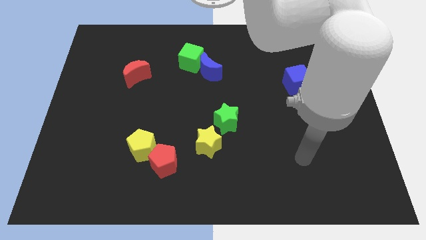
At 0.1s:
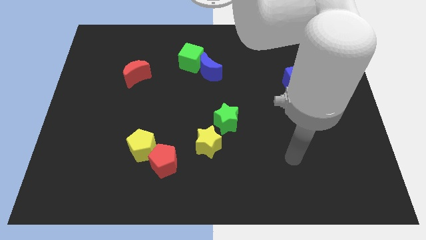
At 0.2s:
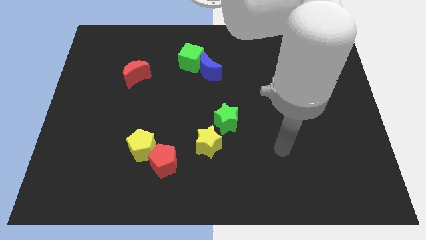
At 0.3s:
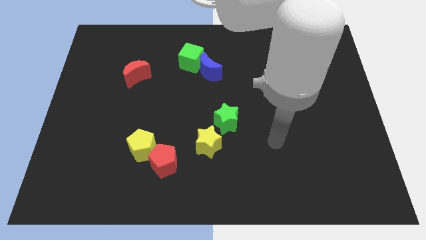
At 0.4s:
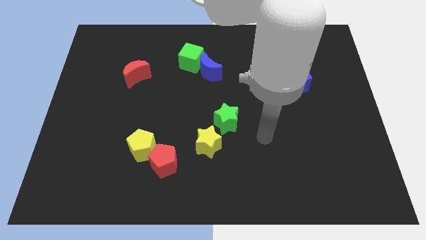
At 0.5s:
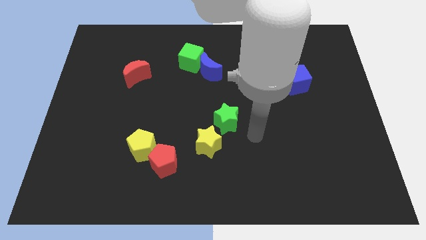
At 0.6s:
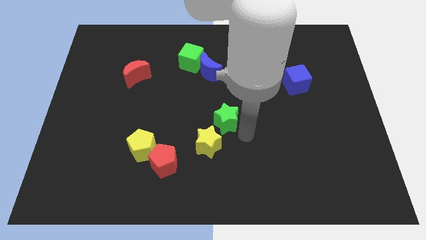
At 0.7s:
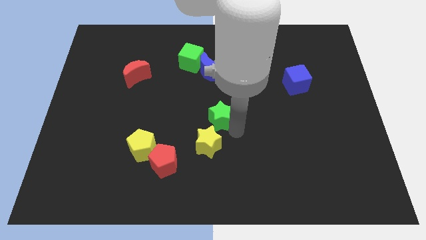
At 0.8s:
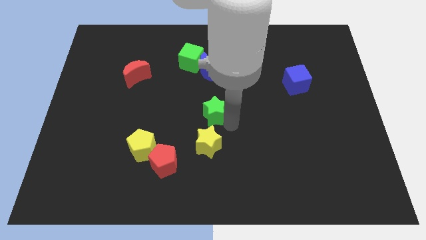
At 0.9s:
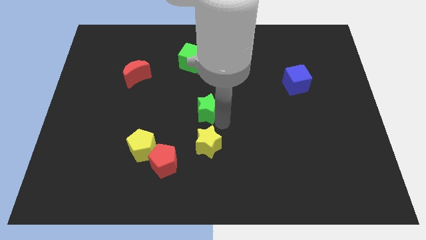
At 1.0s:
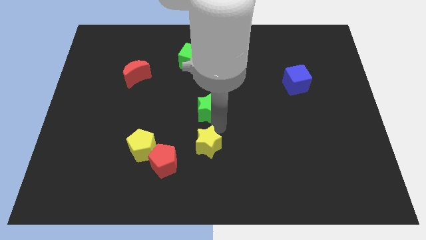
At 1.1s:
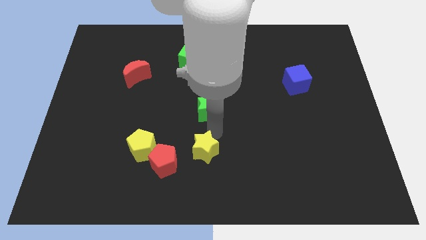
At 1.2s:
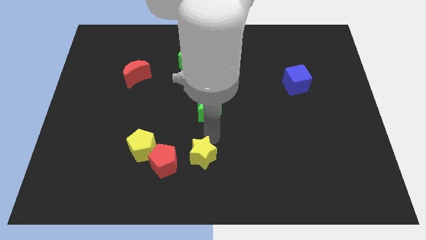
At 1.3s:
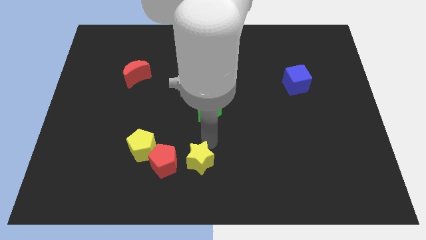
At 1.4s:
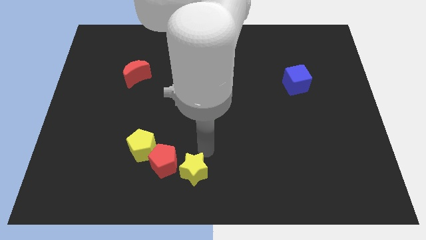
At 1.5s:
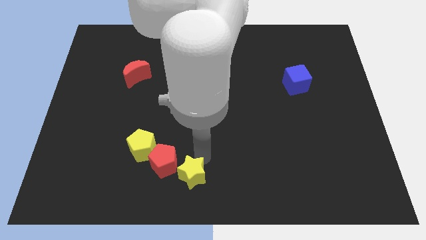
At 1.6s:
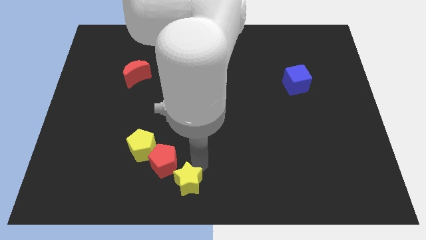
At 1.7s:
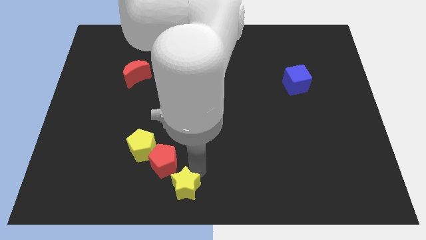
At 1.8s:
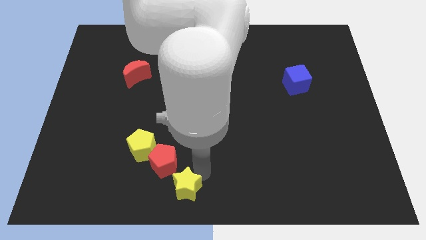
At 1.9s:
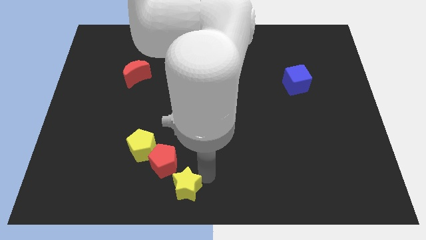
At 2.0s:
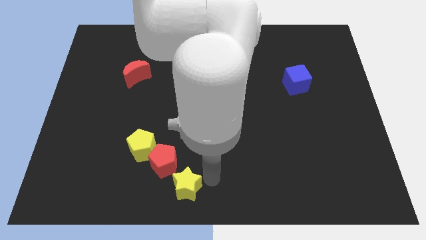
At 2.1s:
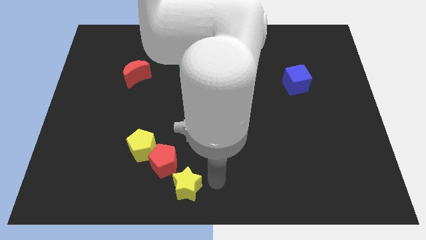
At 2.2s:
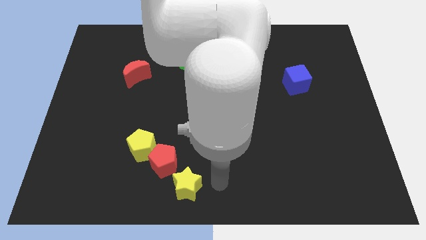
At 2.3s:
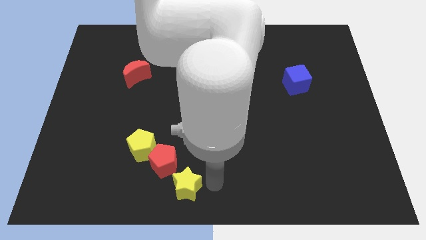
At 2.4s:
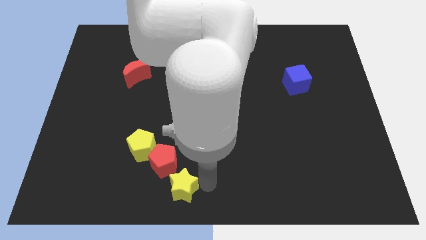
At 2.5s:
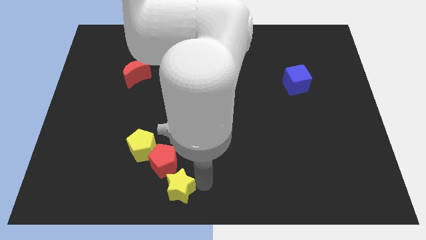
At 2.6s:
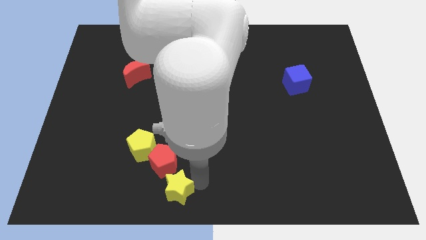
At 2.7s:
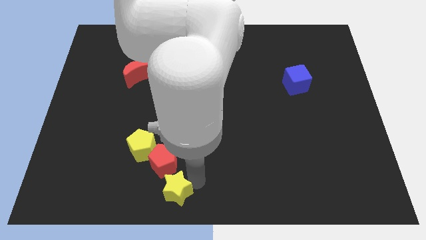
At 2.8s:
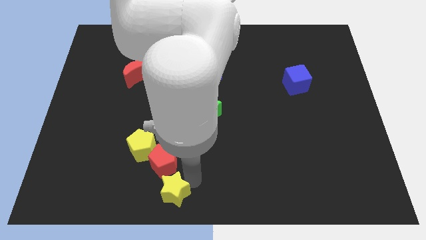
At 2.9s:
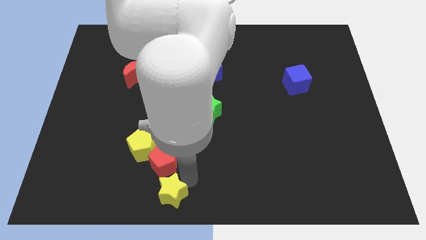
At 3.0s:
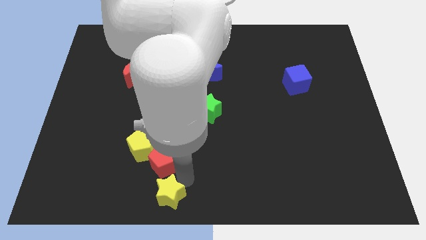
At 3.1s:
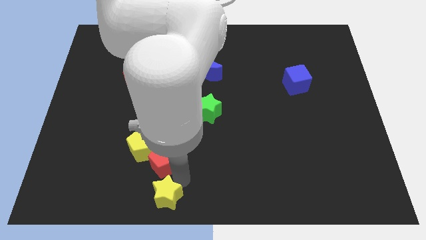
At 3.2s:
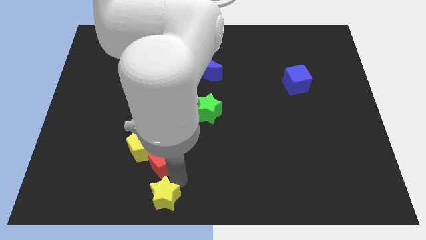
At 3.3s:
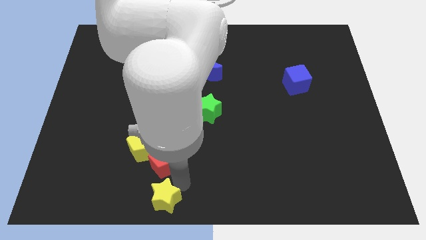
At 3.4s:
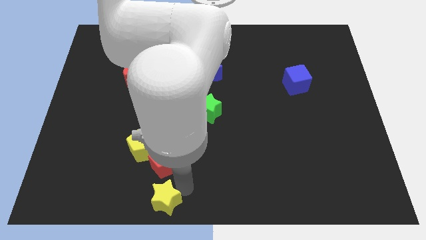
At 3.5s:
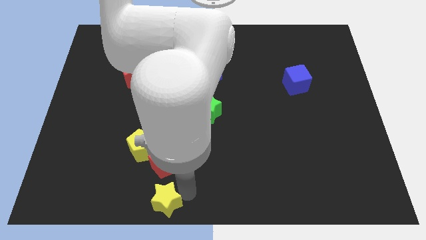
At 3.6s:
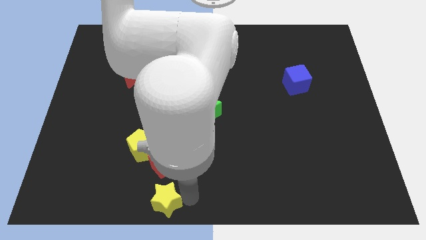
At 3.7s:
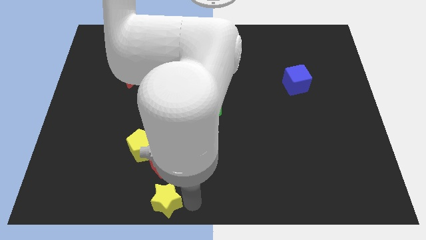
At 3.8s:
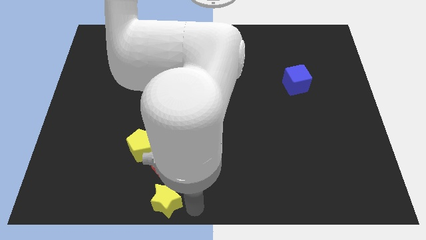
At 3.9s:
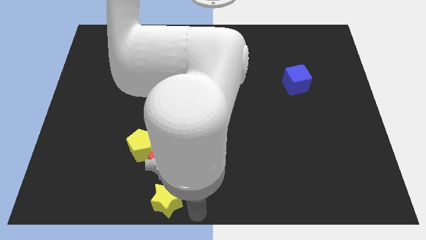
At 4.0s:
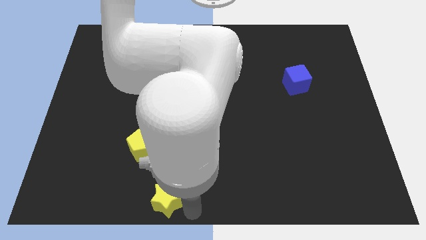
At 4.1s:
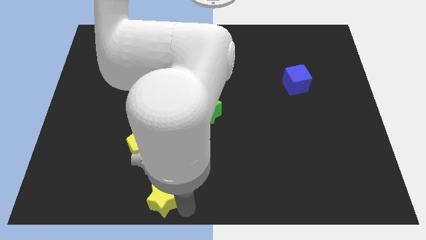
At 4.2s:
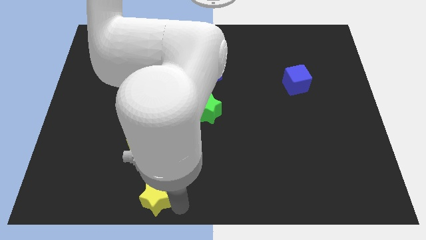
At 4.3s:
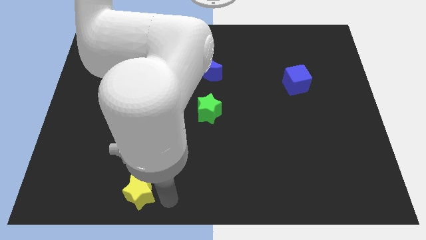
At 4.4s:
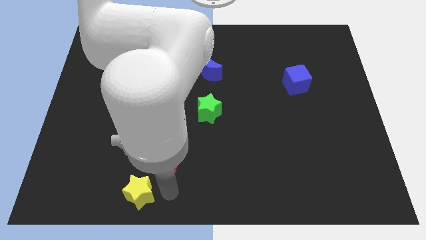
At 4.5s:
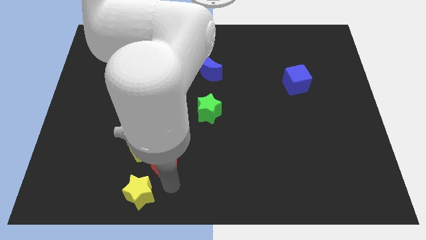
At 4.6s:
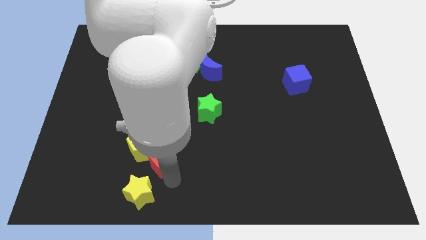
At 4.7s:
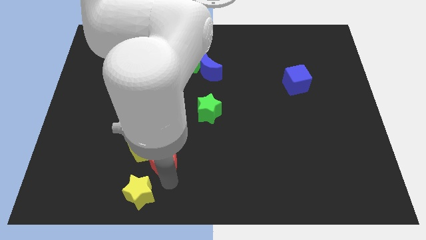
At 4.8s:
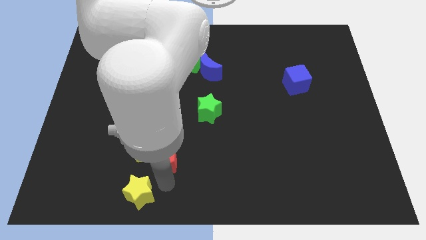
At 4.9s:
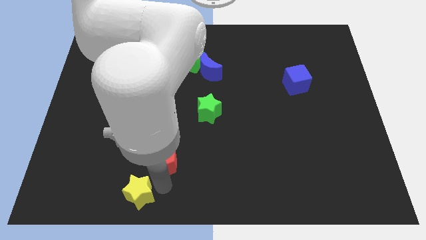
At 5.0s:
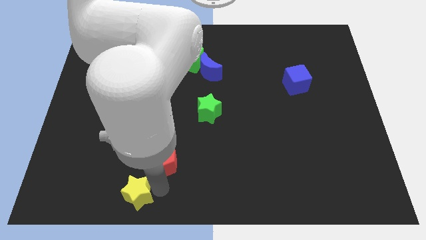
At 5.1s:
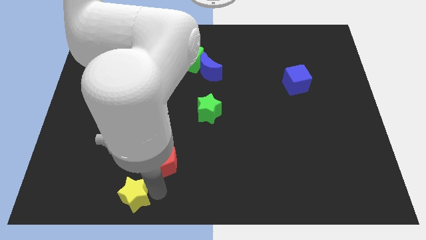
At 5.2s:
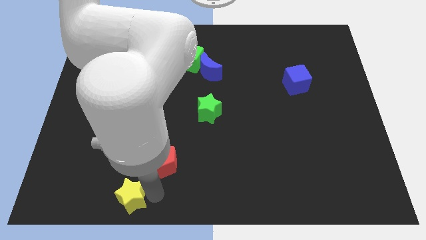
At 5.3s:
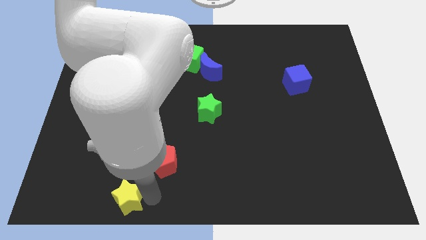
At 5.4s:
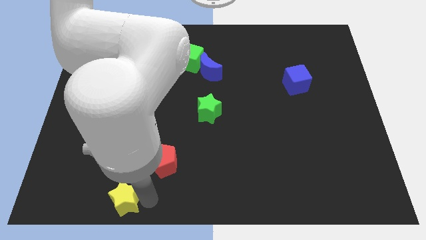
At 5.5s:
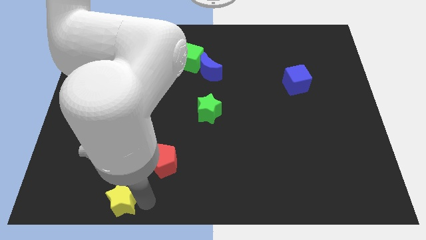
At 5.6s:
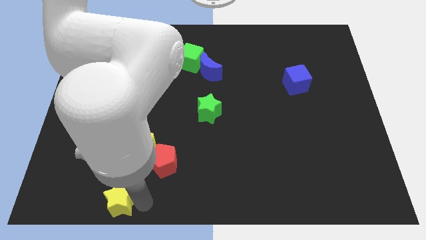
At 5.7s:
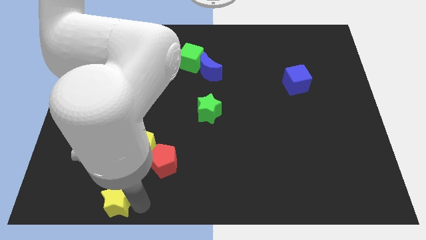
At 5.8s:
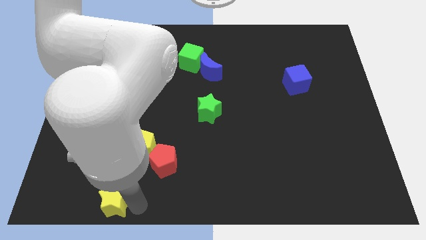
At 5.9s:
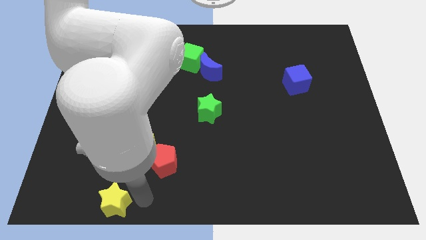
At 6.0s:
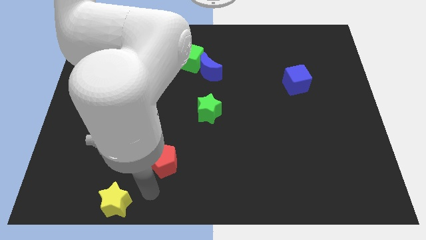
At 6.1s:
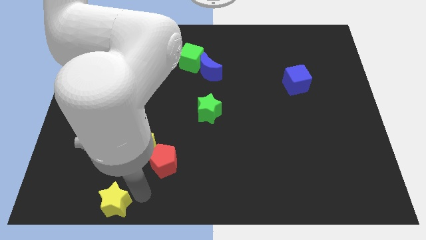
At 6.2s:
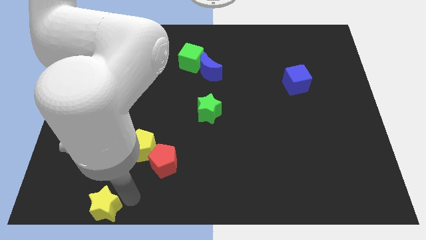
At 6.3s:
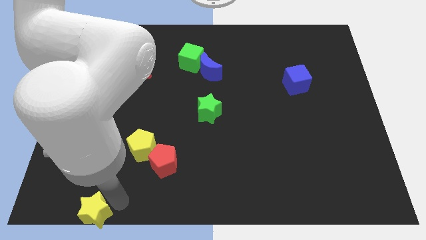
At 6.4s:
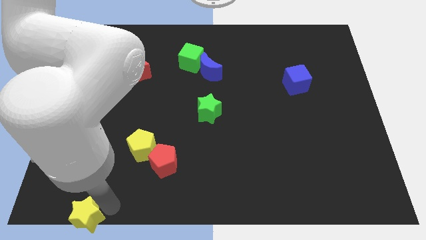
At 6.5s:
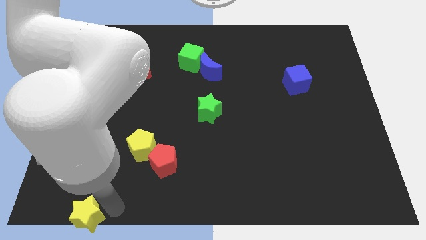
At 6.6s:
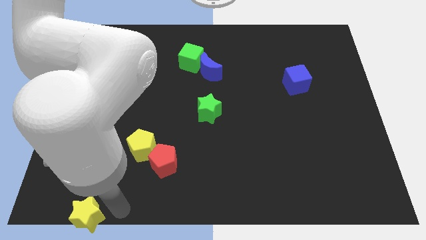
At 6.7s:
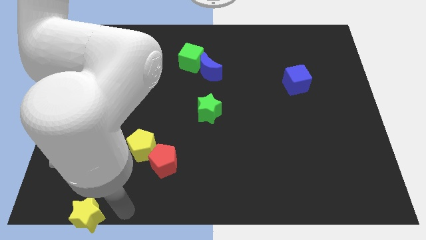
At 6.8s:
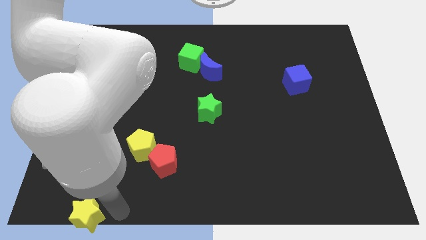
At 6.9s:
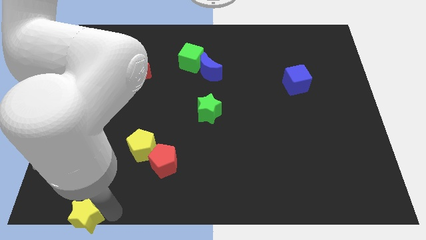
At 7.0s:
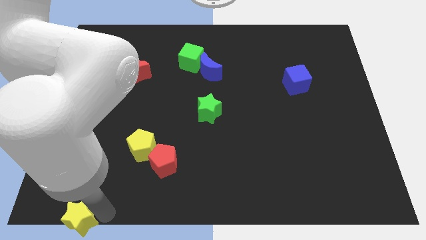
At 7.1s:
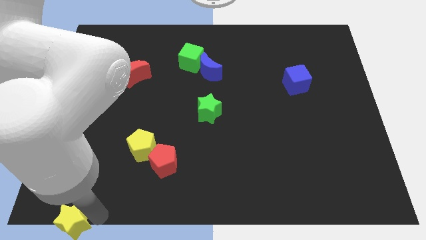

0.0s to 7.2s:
slide the yellow star to the lower left corner
